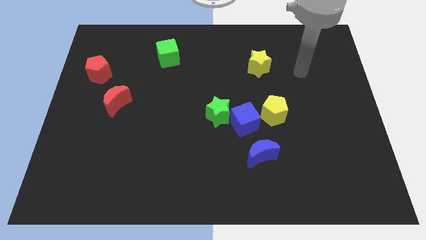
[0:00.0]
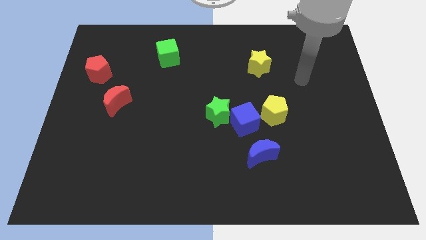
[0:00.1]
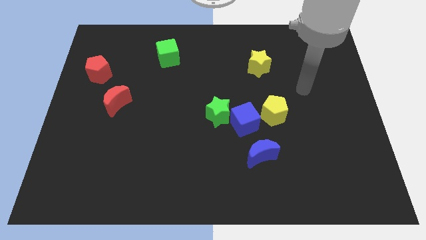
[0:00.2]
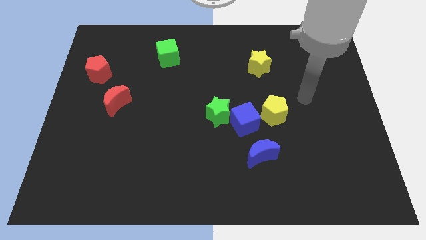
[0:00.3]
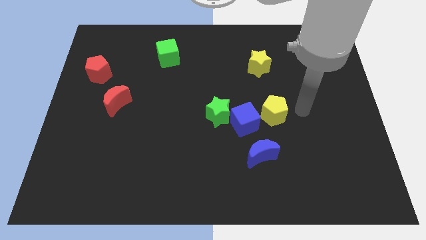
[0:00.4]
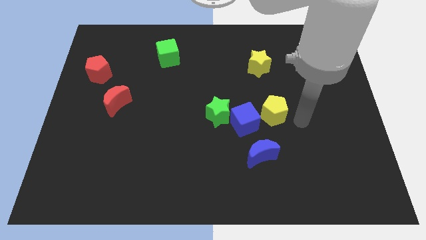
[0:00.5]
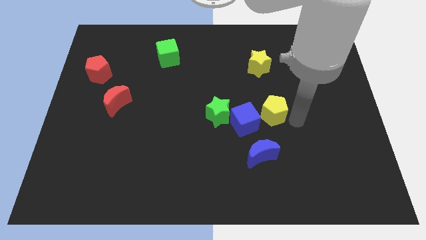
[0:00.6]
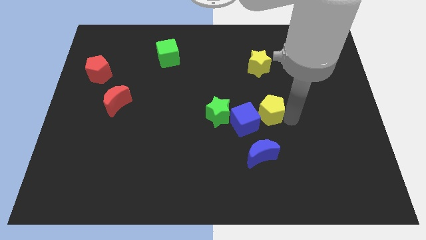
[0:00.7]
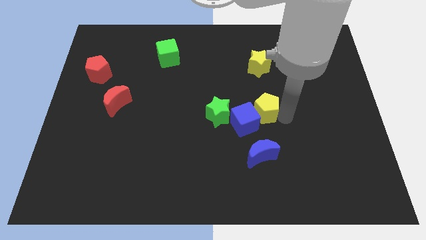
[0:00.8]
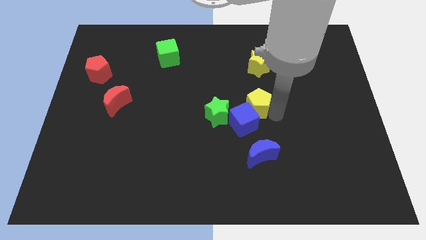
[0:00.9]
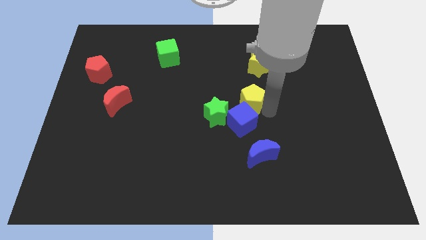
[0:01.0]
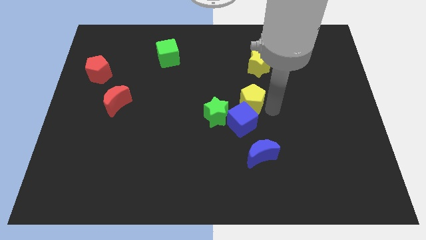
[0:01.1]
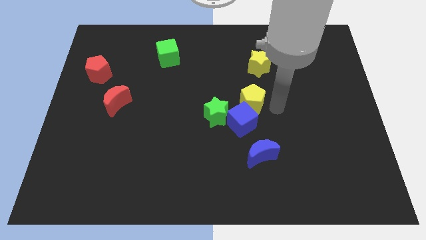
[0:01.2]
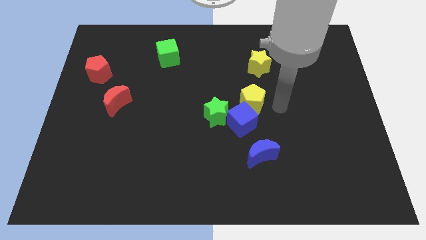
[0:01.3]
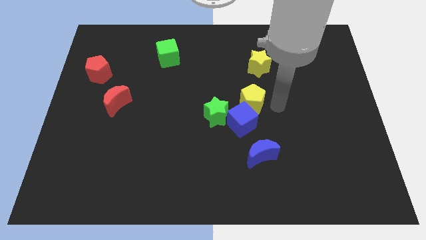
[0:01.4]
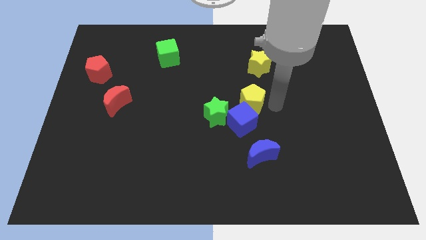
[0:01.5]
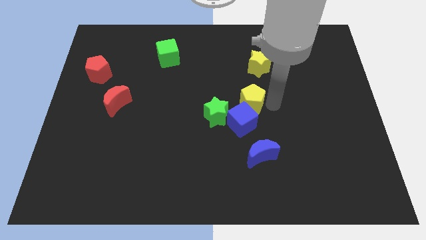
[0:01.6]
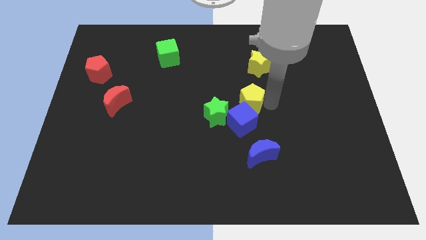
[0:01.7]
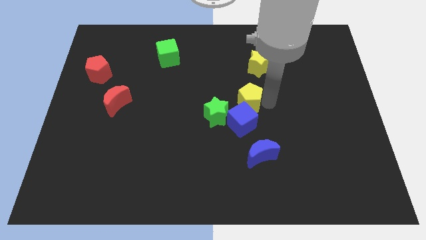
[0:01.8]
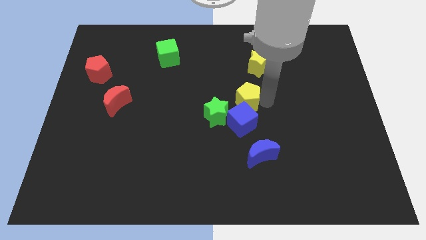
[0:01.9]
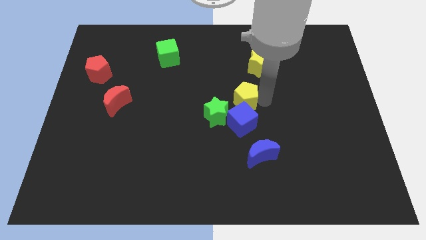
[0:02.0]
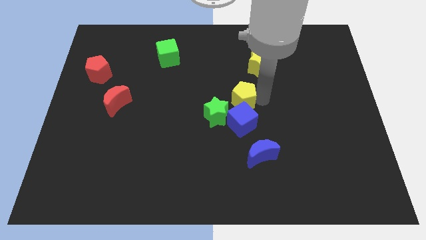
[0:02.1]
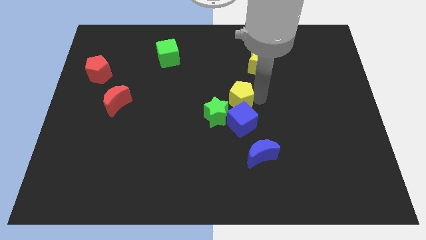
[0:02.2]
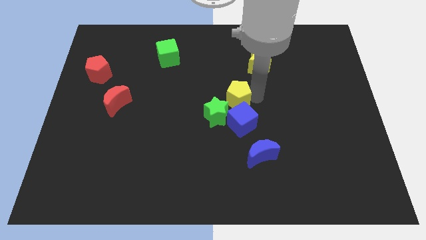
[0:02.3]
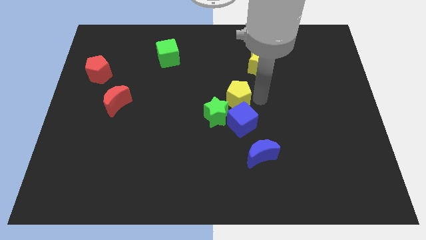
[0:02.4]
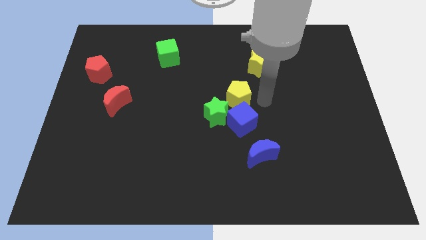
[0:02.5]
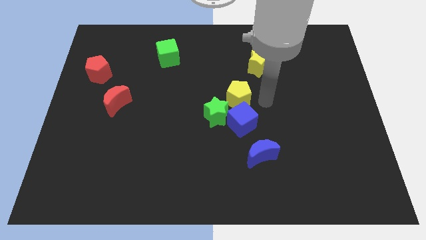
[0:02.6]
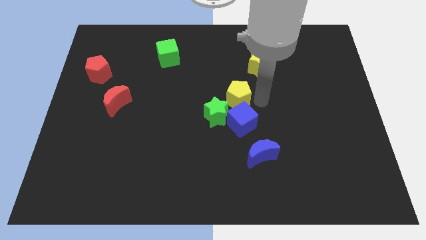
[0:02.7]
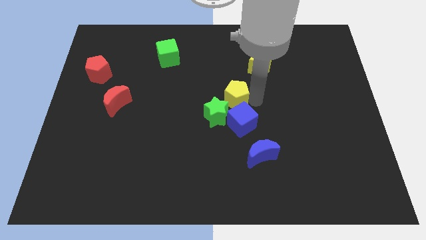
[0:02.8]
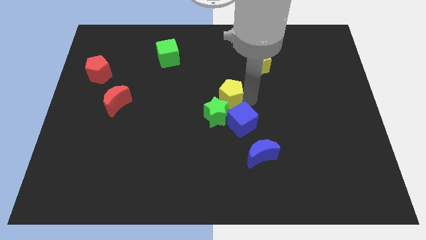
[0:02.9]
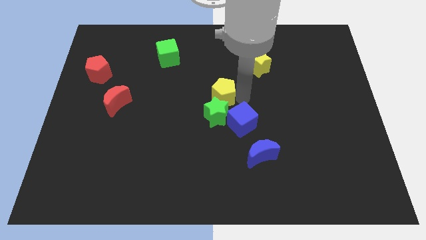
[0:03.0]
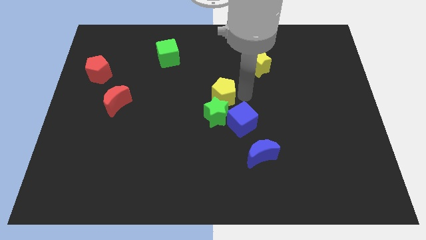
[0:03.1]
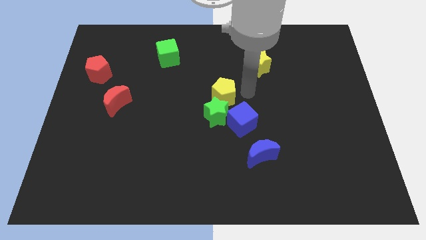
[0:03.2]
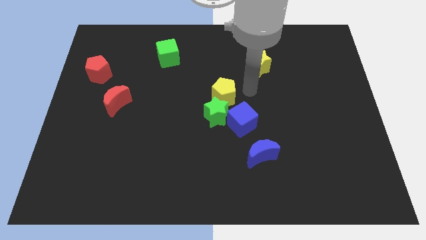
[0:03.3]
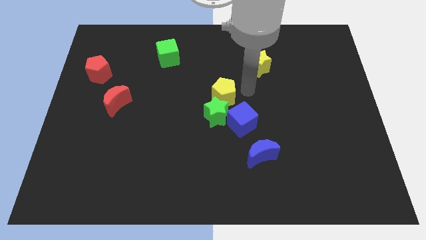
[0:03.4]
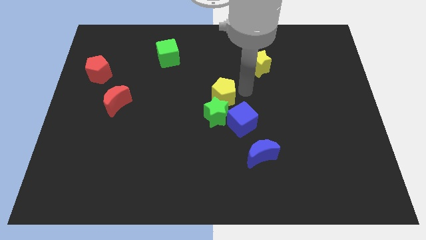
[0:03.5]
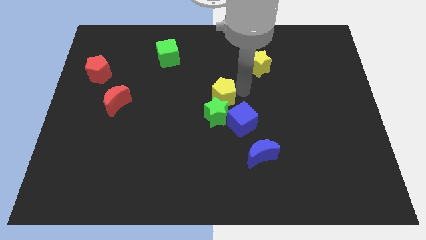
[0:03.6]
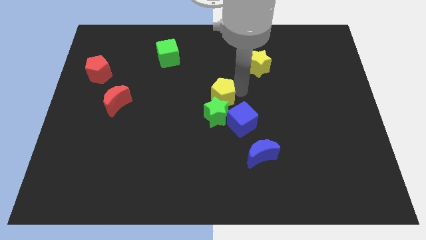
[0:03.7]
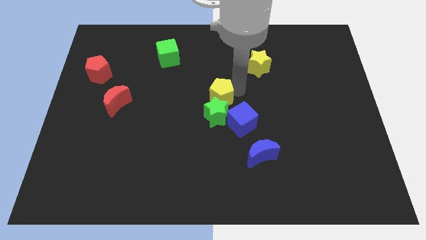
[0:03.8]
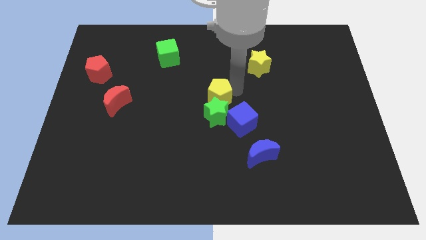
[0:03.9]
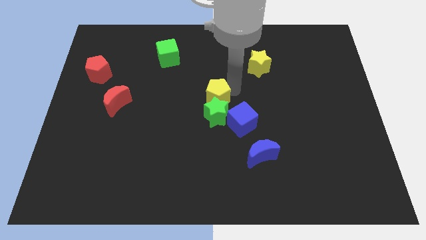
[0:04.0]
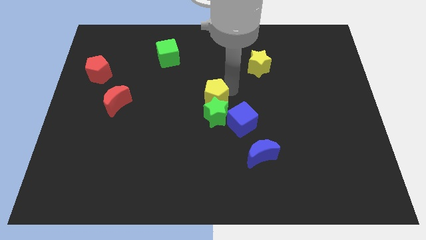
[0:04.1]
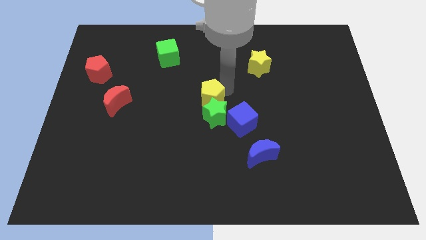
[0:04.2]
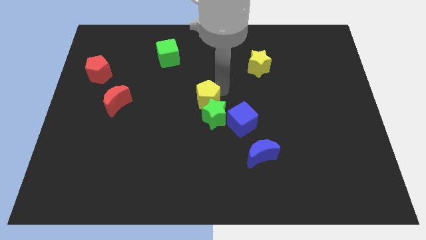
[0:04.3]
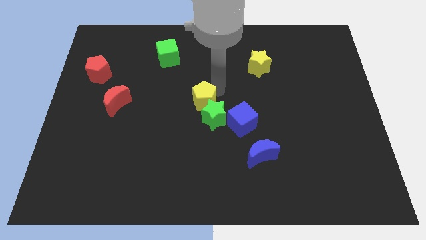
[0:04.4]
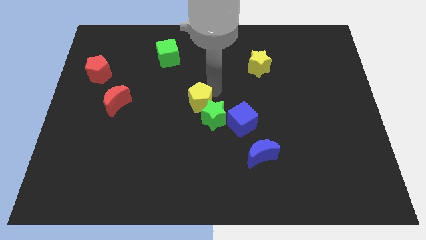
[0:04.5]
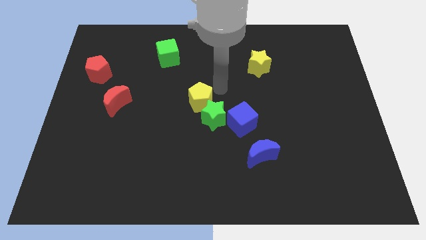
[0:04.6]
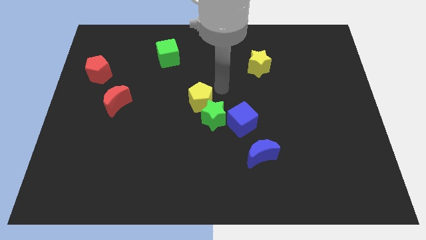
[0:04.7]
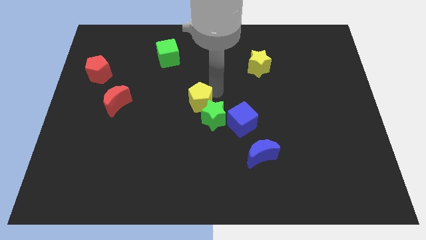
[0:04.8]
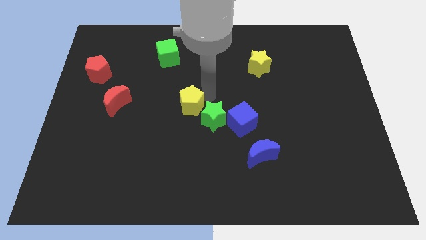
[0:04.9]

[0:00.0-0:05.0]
slide the yellow pentagon just left of the green star

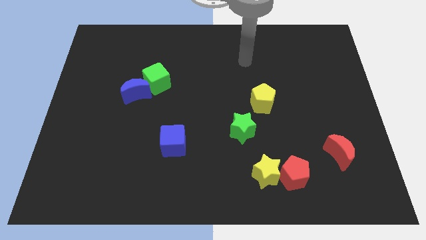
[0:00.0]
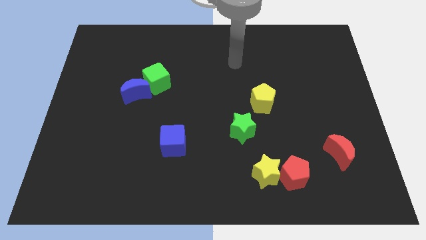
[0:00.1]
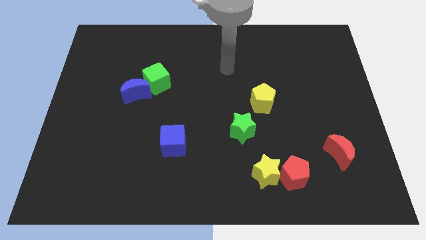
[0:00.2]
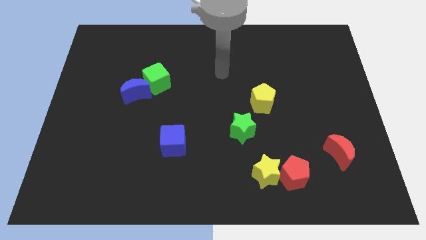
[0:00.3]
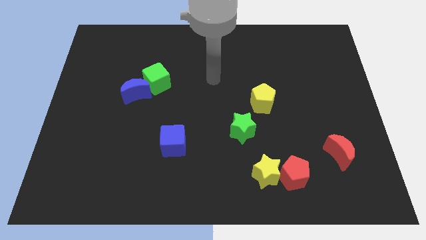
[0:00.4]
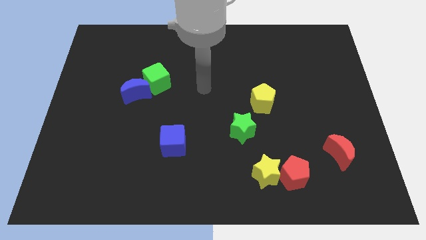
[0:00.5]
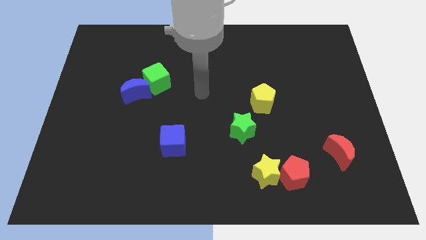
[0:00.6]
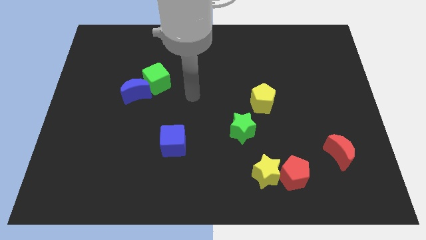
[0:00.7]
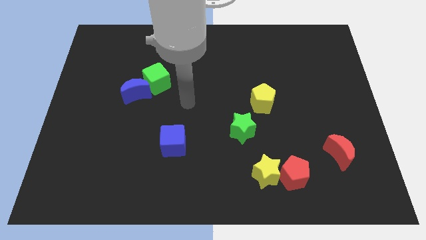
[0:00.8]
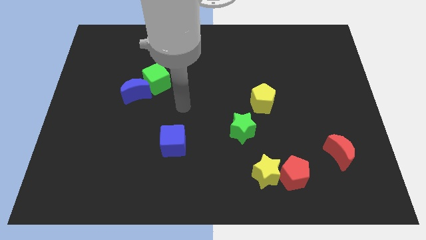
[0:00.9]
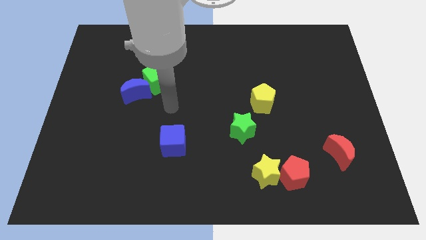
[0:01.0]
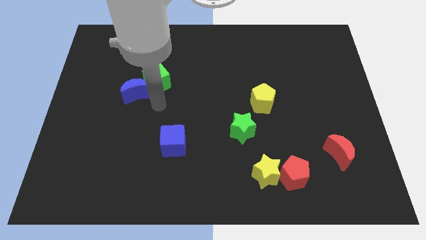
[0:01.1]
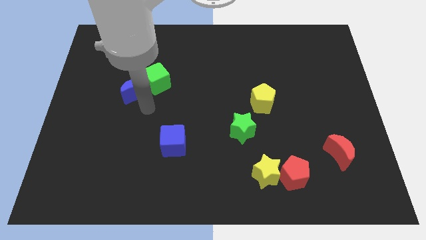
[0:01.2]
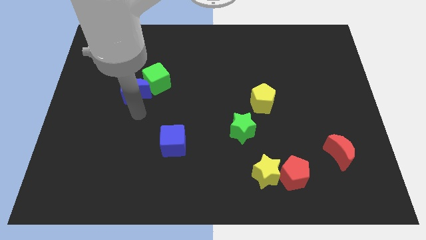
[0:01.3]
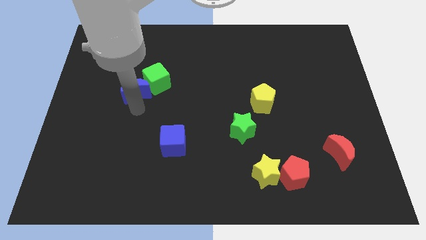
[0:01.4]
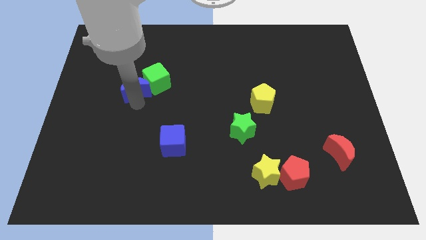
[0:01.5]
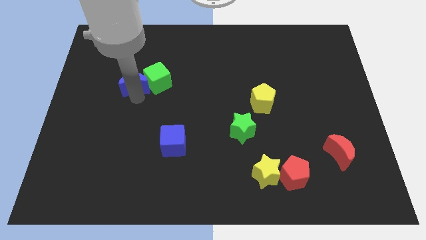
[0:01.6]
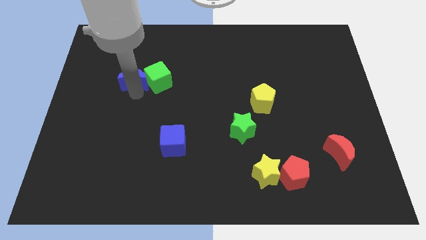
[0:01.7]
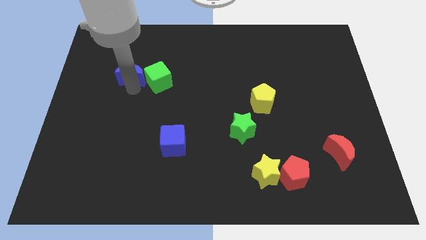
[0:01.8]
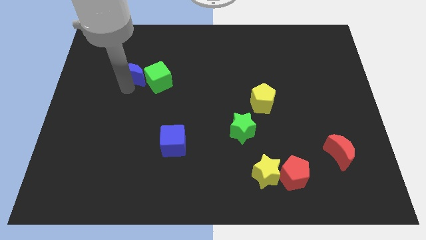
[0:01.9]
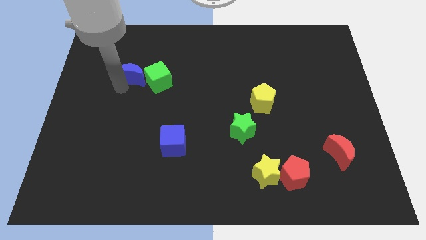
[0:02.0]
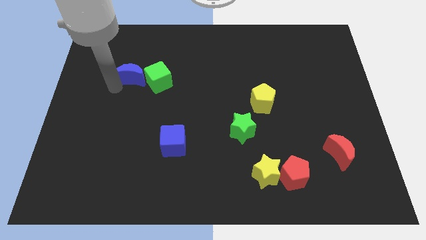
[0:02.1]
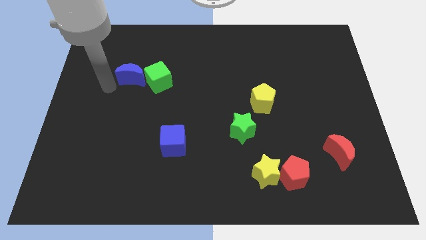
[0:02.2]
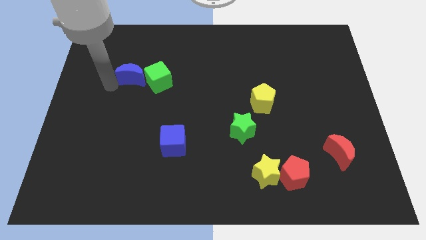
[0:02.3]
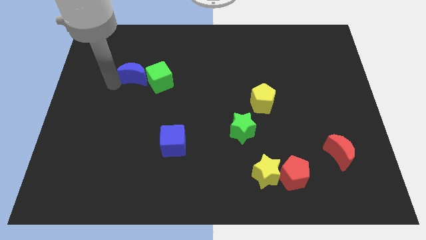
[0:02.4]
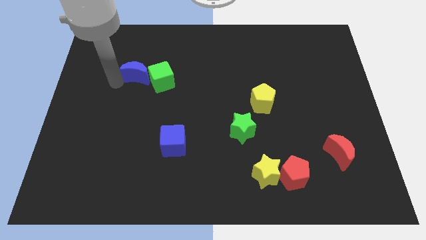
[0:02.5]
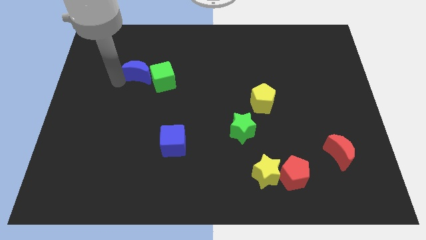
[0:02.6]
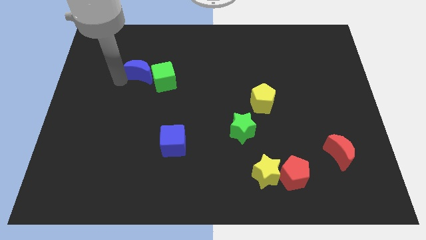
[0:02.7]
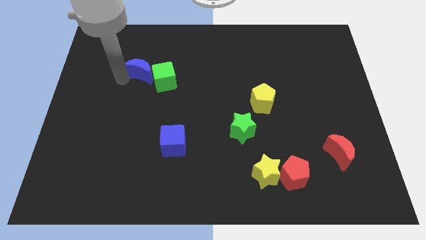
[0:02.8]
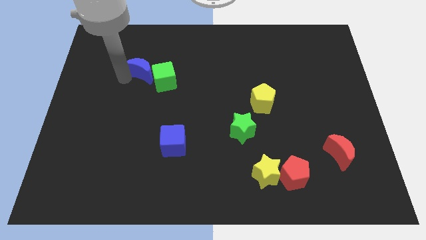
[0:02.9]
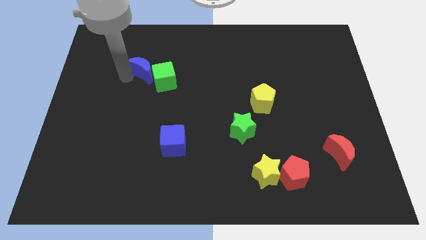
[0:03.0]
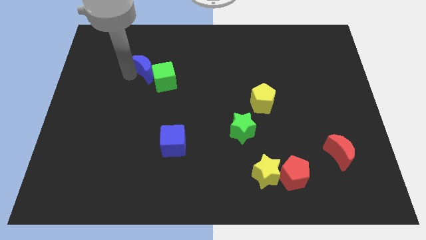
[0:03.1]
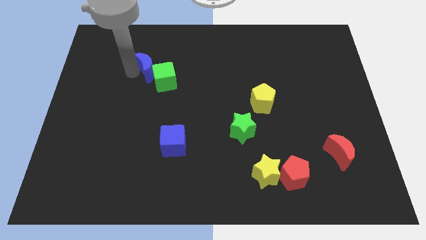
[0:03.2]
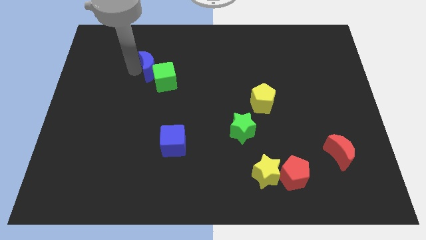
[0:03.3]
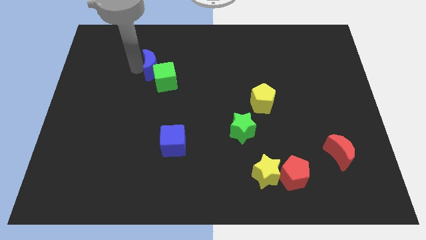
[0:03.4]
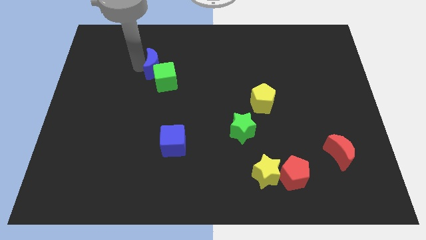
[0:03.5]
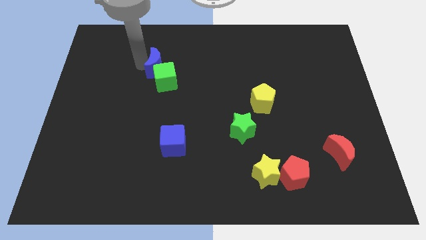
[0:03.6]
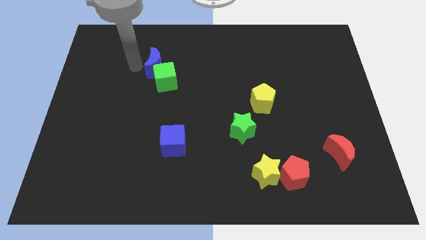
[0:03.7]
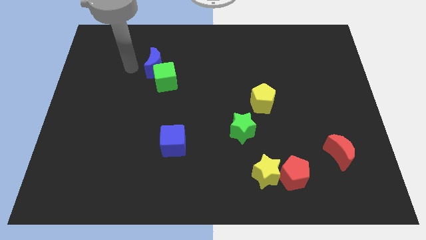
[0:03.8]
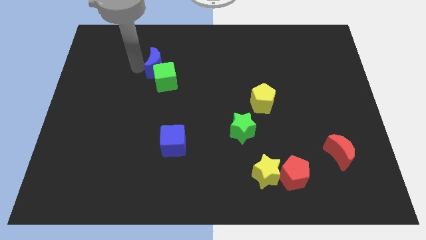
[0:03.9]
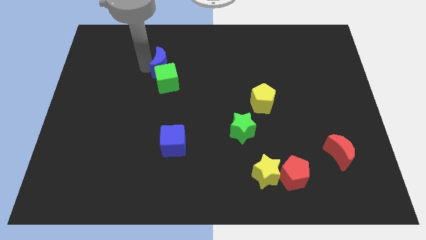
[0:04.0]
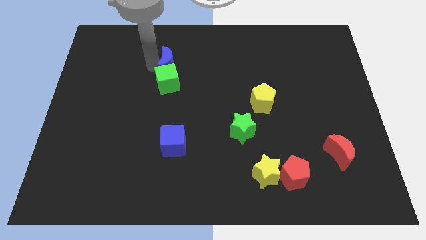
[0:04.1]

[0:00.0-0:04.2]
put the blue moon to the top right side of the green cube
